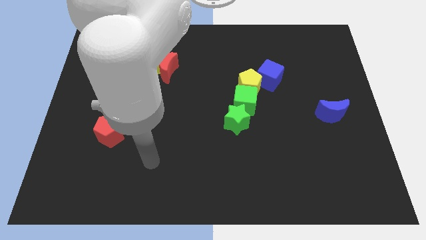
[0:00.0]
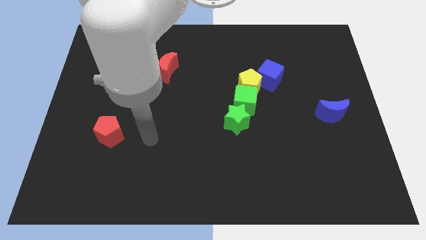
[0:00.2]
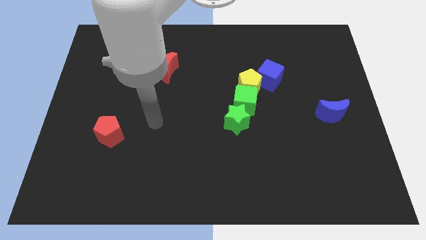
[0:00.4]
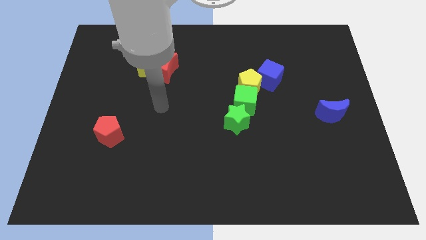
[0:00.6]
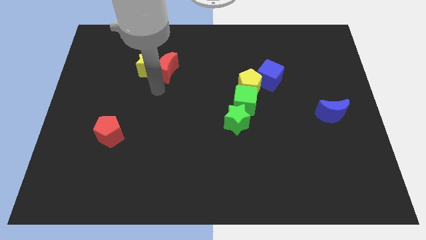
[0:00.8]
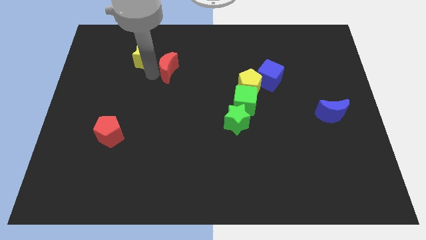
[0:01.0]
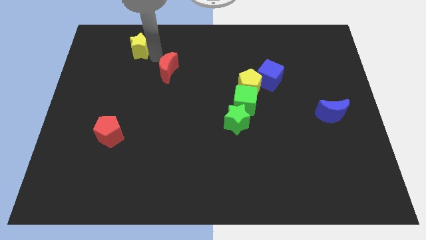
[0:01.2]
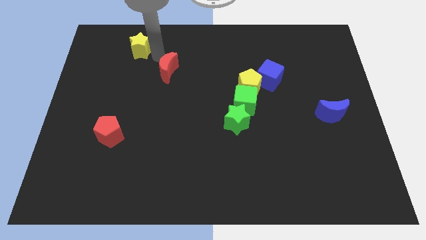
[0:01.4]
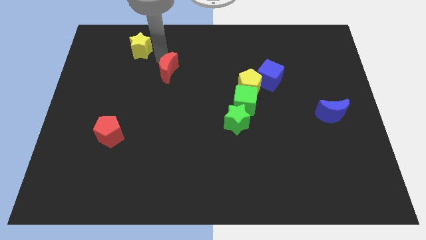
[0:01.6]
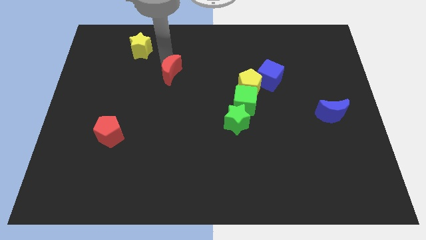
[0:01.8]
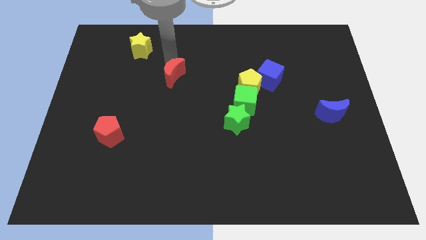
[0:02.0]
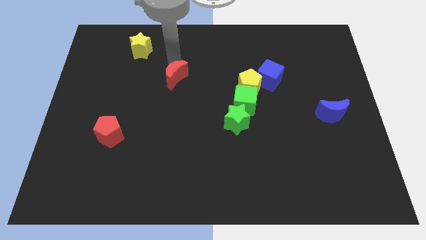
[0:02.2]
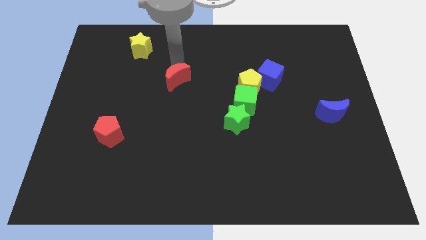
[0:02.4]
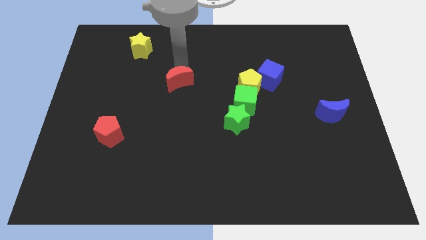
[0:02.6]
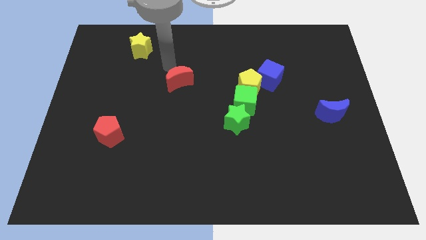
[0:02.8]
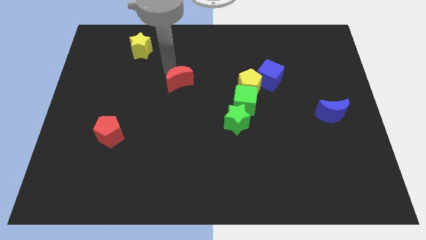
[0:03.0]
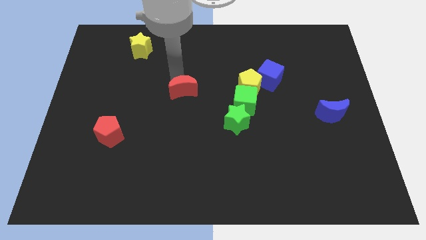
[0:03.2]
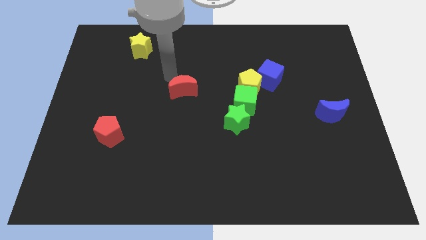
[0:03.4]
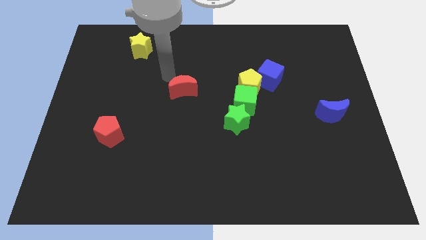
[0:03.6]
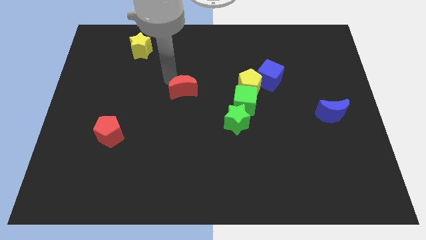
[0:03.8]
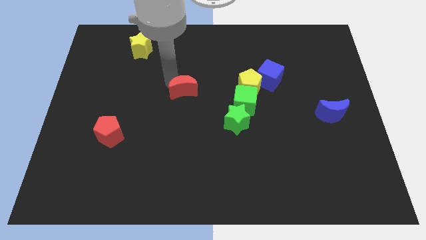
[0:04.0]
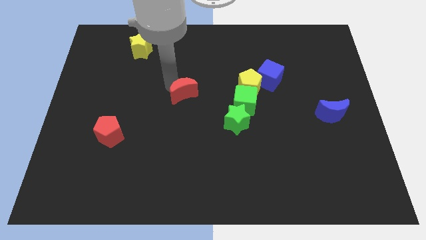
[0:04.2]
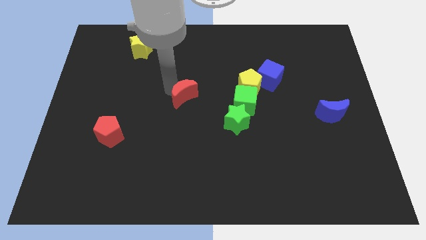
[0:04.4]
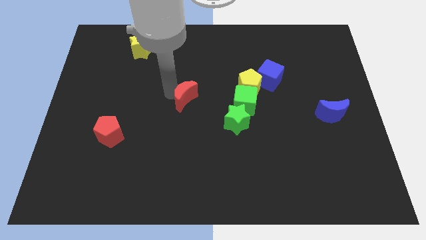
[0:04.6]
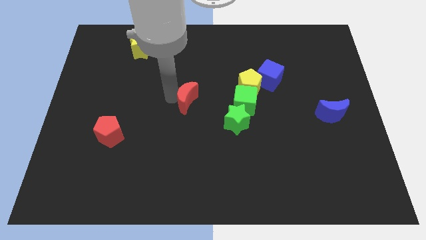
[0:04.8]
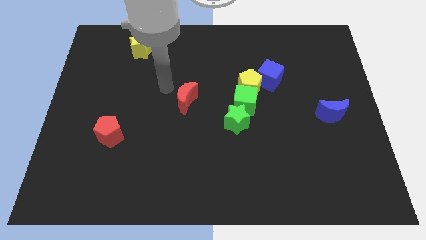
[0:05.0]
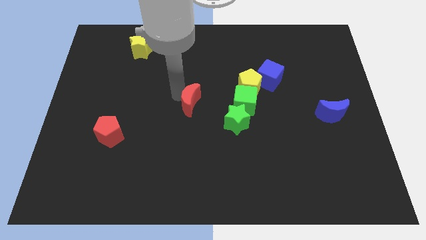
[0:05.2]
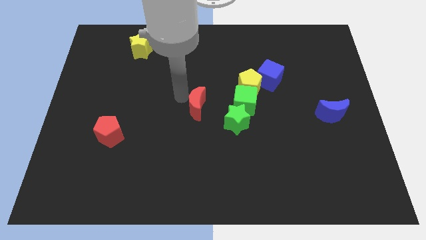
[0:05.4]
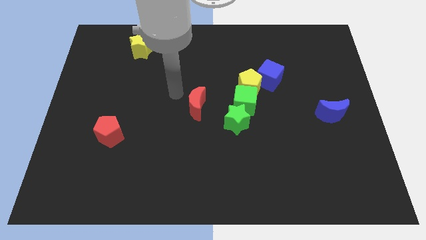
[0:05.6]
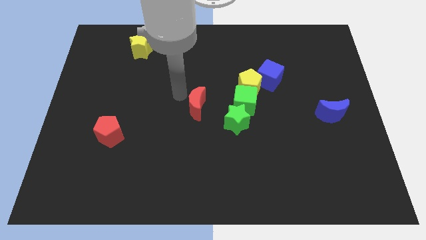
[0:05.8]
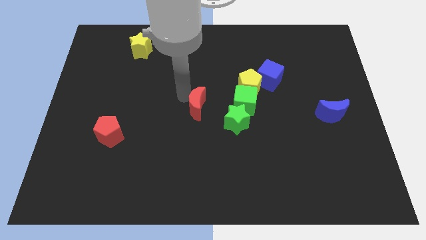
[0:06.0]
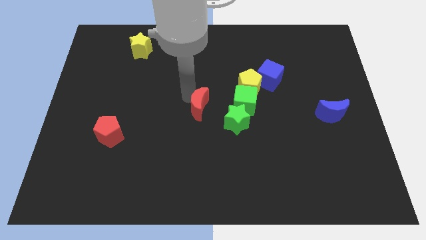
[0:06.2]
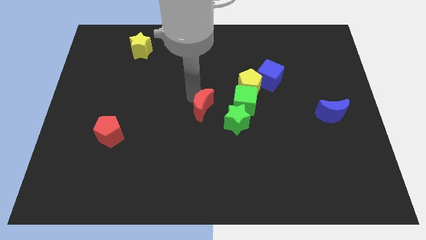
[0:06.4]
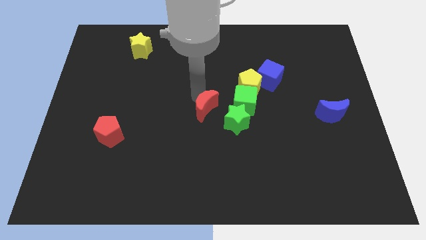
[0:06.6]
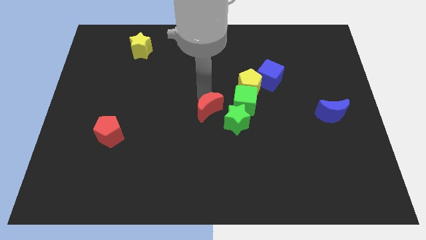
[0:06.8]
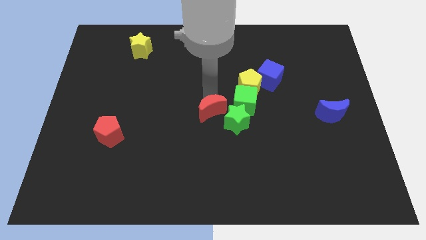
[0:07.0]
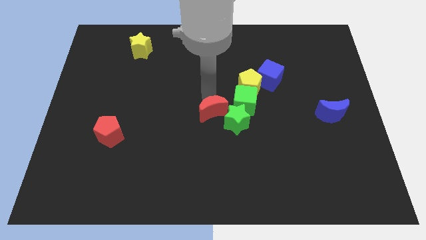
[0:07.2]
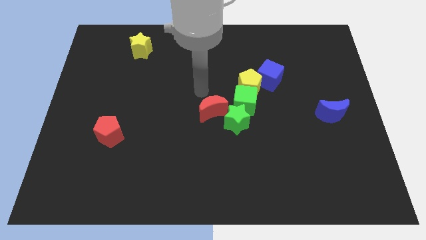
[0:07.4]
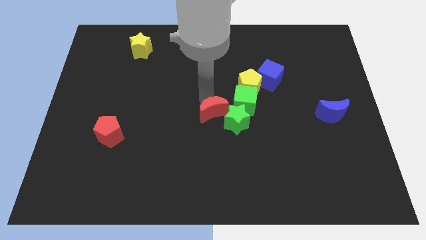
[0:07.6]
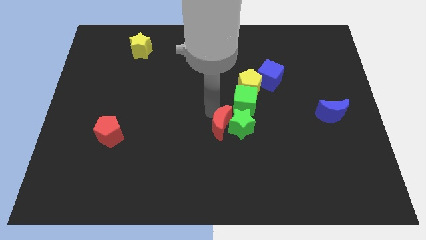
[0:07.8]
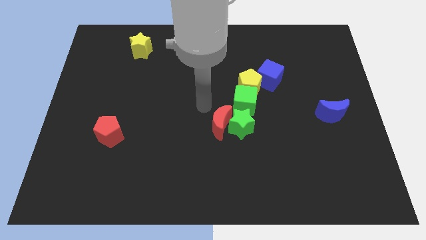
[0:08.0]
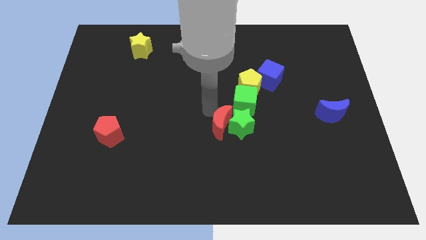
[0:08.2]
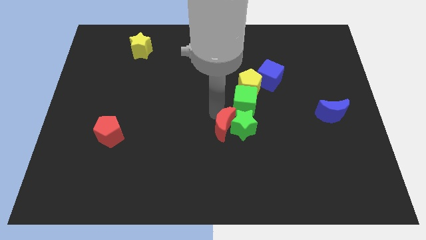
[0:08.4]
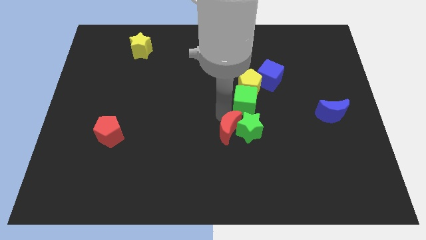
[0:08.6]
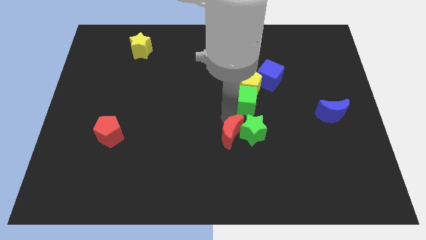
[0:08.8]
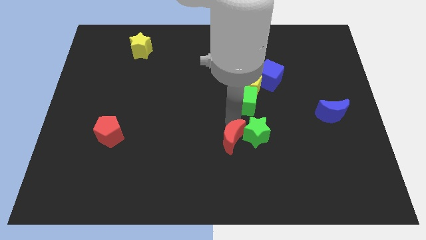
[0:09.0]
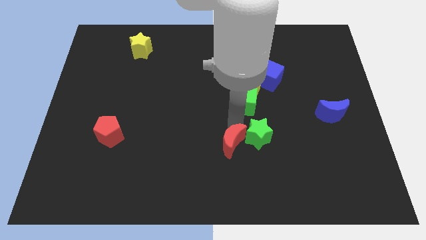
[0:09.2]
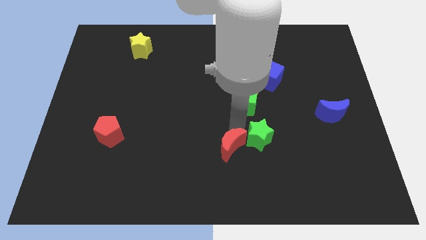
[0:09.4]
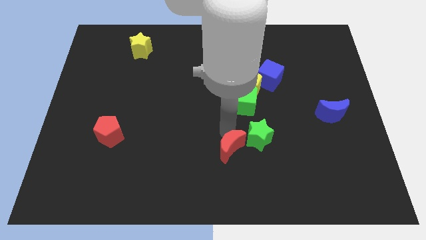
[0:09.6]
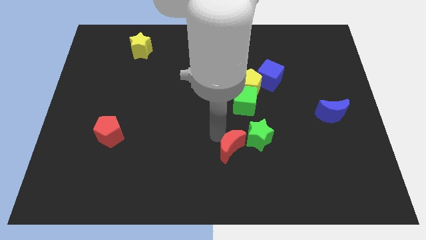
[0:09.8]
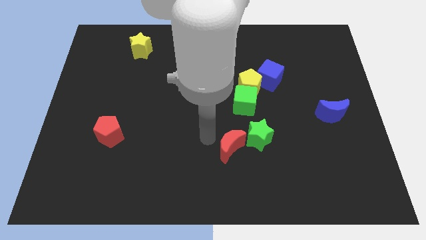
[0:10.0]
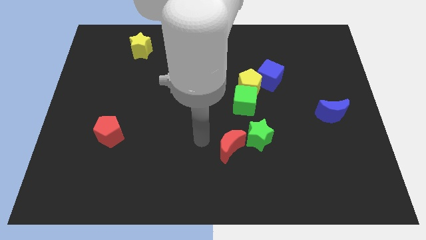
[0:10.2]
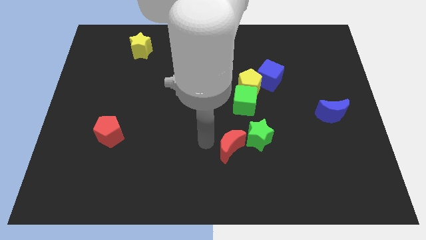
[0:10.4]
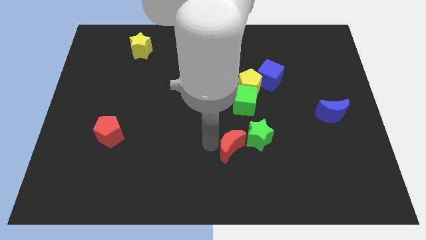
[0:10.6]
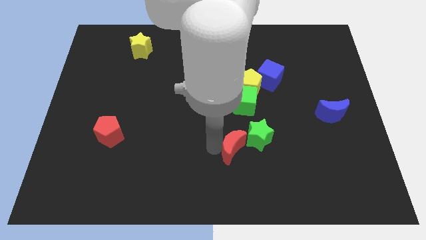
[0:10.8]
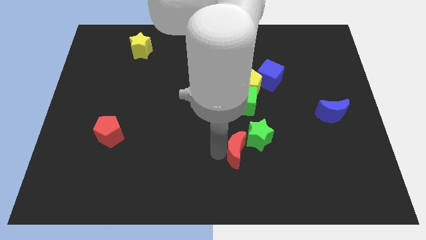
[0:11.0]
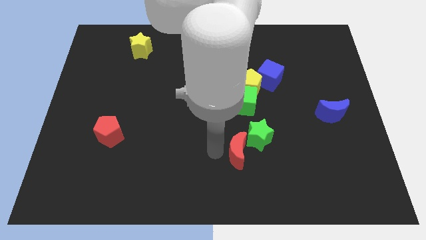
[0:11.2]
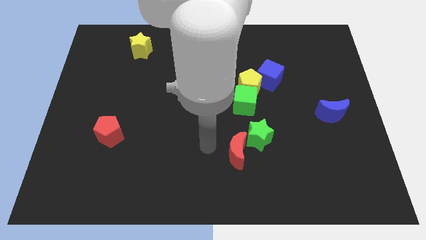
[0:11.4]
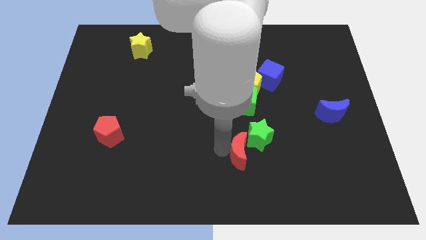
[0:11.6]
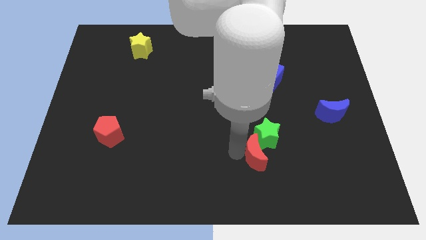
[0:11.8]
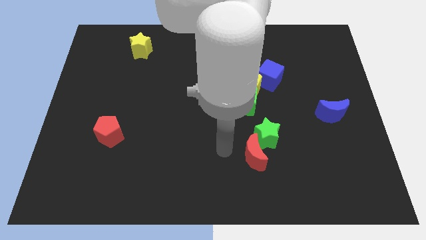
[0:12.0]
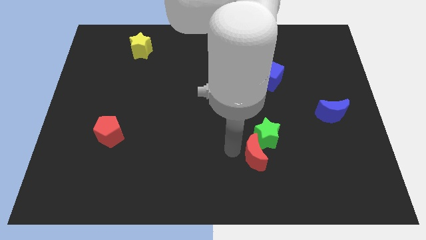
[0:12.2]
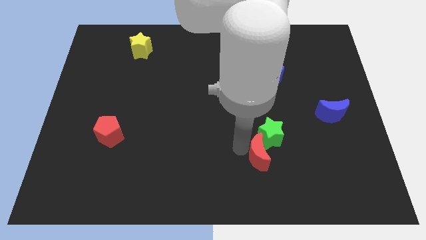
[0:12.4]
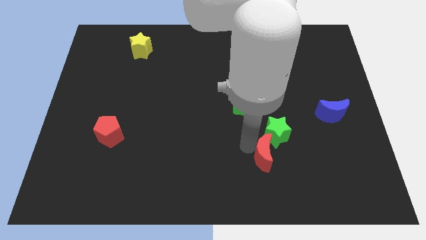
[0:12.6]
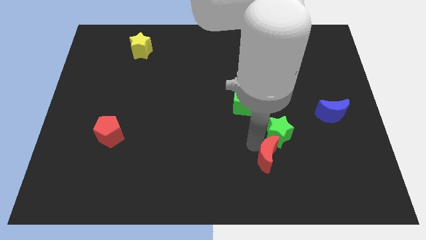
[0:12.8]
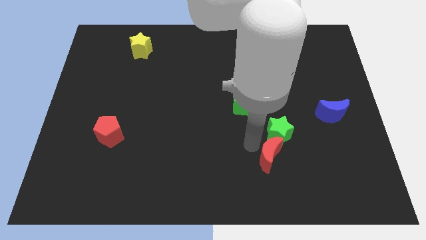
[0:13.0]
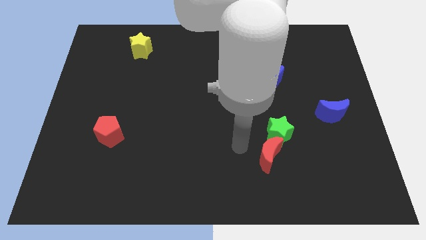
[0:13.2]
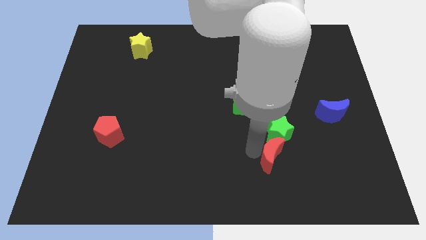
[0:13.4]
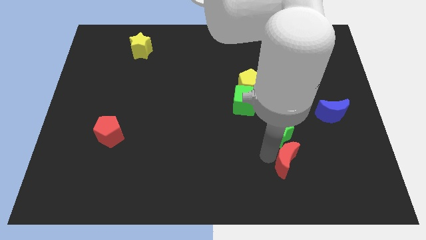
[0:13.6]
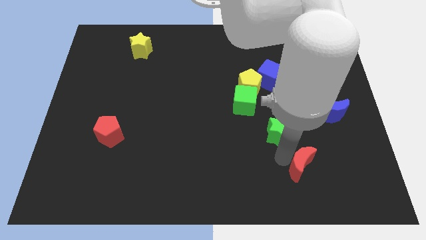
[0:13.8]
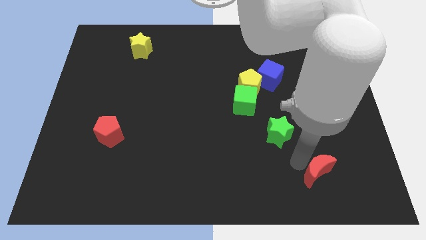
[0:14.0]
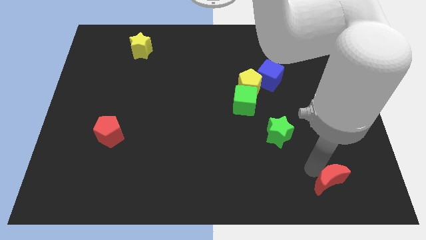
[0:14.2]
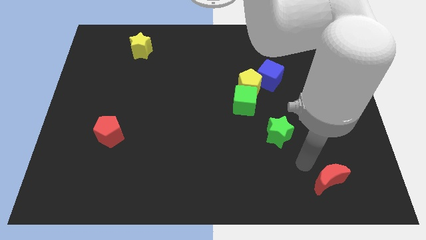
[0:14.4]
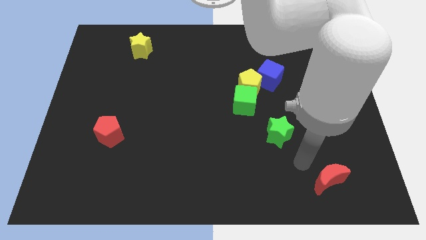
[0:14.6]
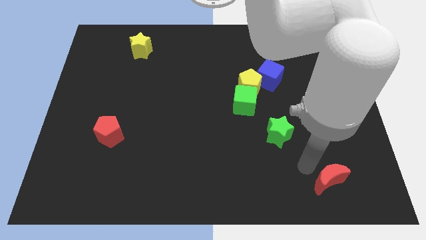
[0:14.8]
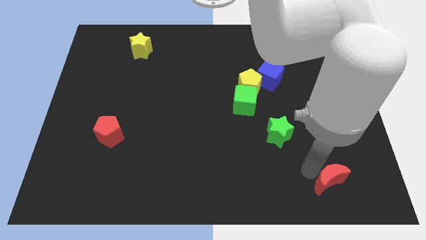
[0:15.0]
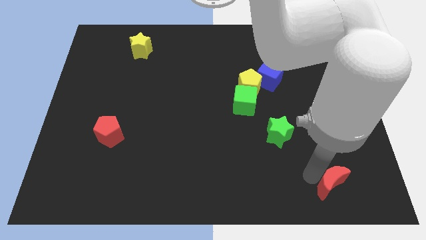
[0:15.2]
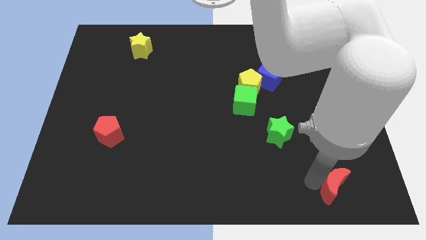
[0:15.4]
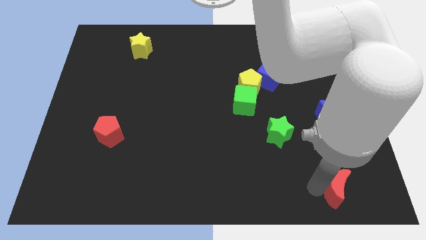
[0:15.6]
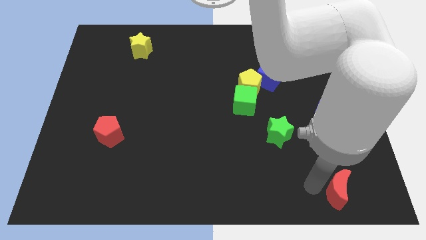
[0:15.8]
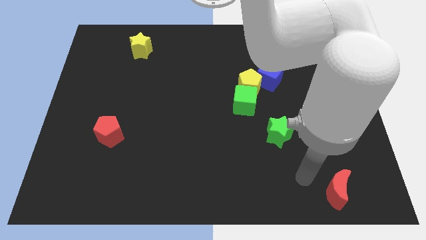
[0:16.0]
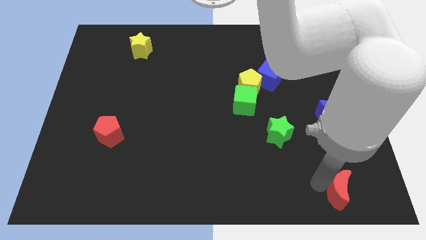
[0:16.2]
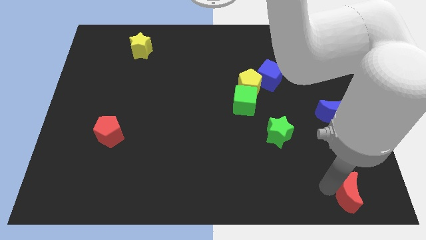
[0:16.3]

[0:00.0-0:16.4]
push the red moon to the bottom right
